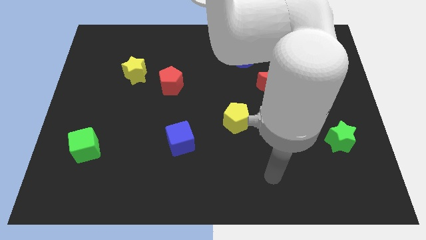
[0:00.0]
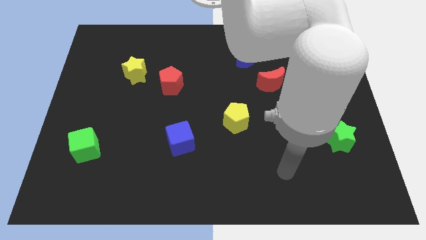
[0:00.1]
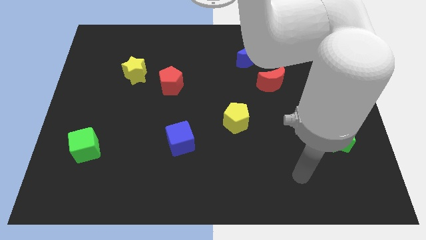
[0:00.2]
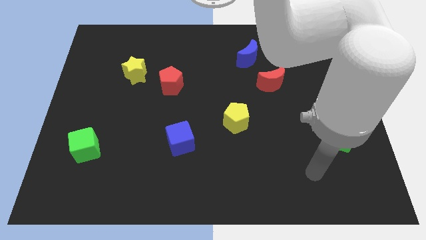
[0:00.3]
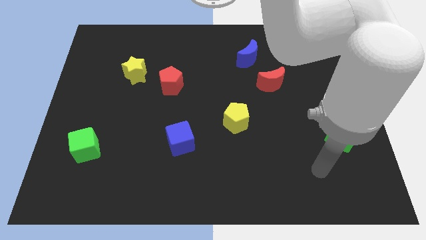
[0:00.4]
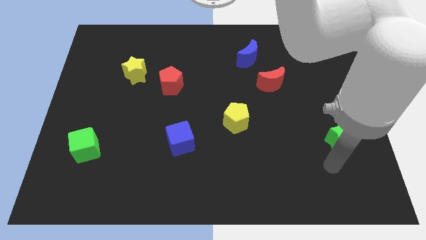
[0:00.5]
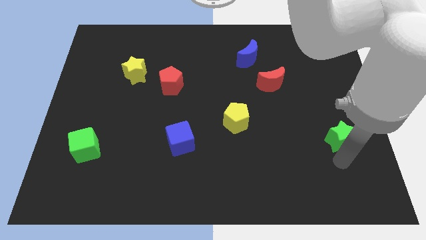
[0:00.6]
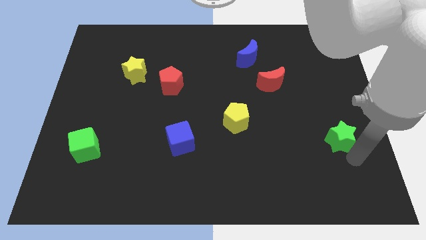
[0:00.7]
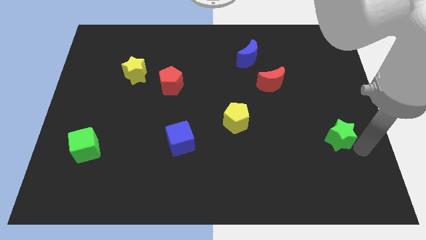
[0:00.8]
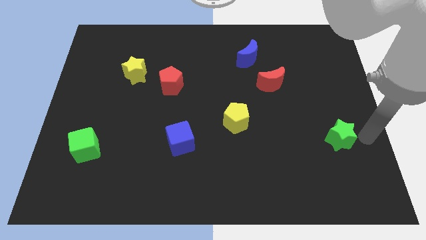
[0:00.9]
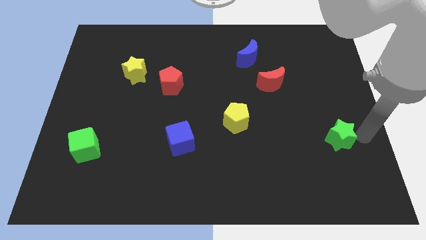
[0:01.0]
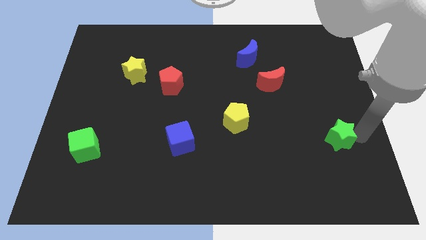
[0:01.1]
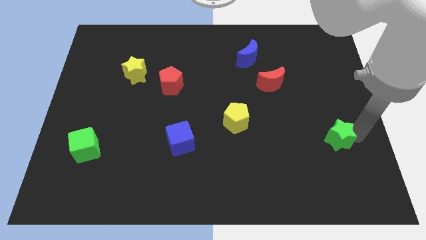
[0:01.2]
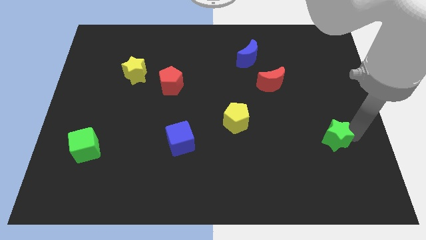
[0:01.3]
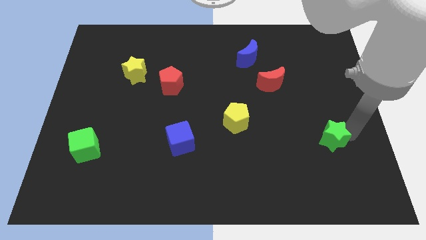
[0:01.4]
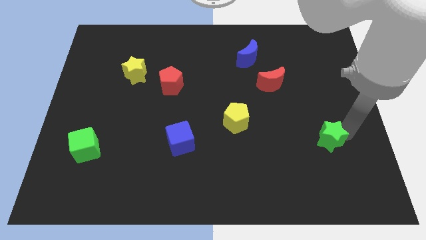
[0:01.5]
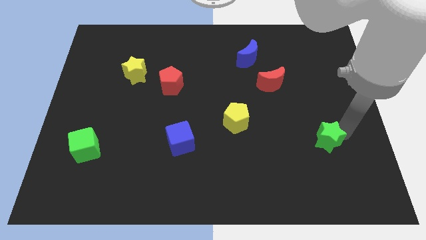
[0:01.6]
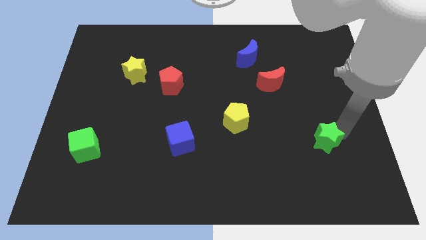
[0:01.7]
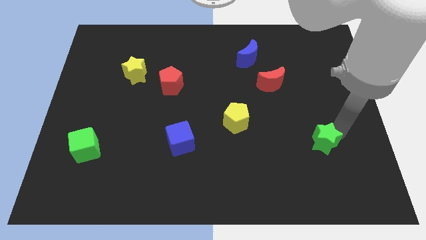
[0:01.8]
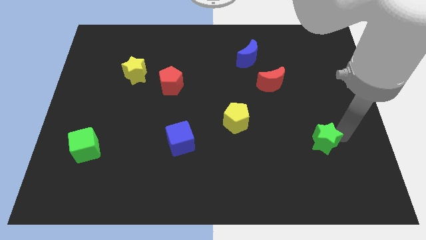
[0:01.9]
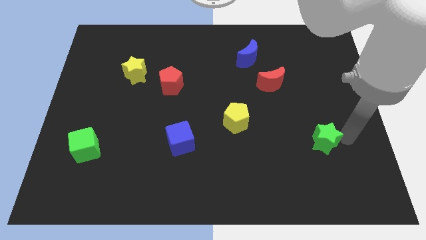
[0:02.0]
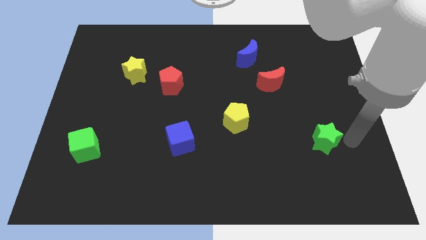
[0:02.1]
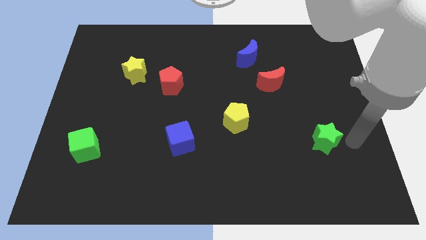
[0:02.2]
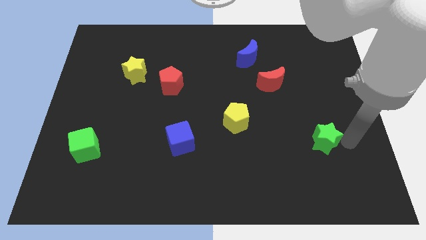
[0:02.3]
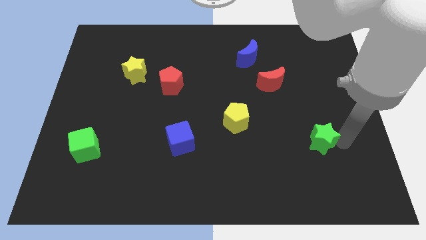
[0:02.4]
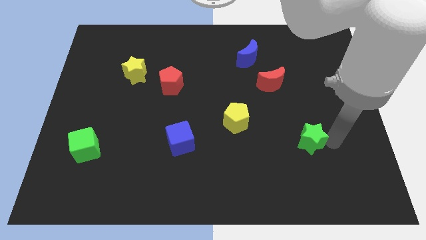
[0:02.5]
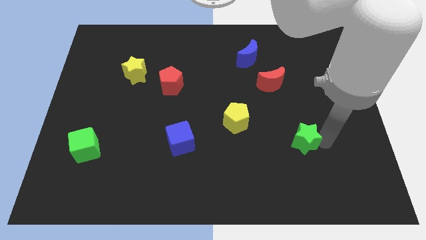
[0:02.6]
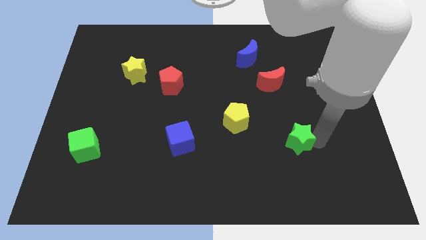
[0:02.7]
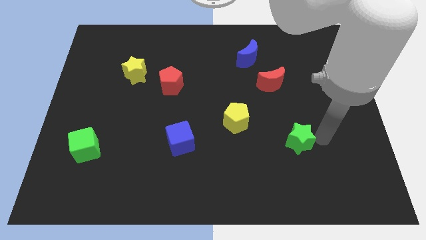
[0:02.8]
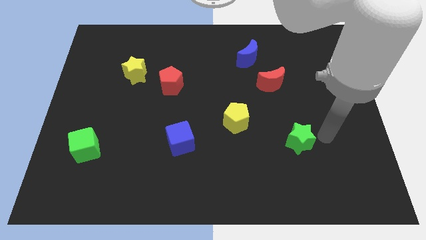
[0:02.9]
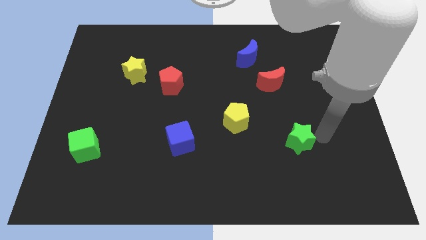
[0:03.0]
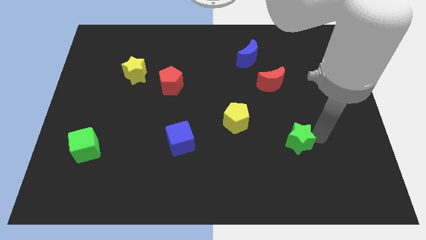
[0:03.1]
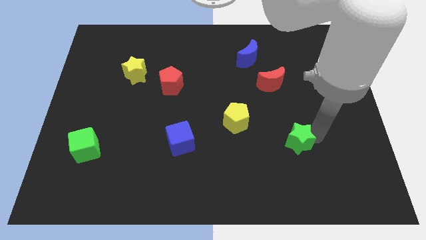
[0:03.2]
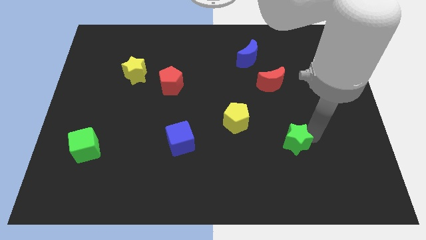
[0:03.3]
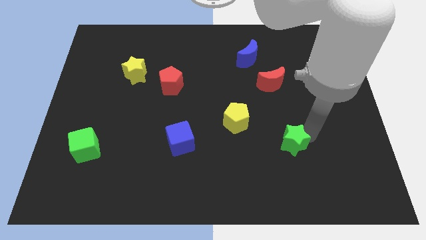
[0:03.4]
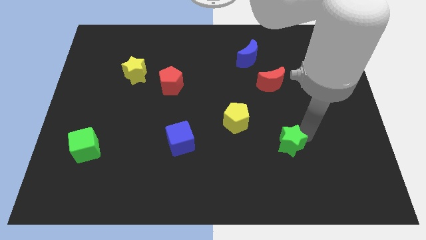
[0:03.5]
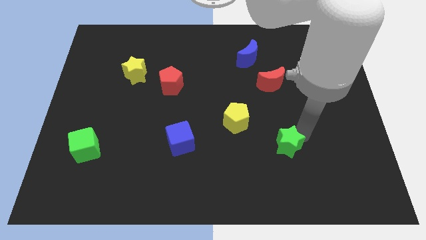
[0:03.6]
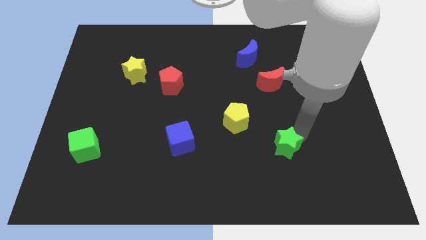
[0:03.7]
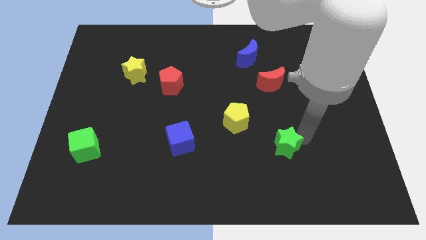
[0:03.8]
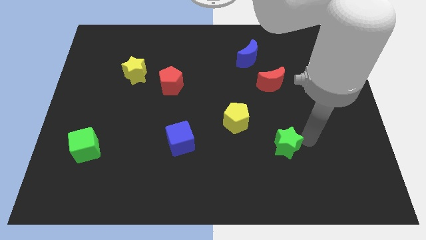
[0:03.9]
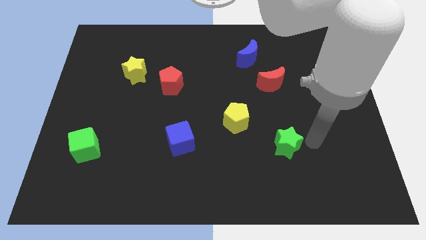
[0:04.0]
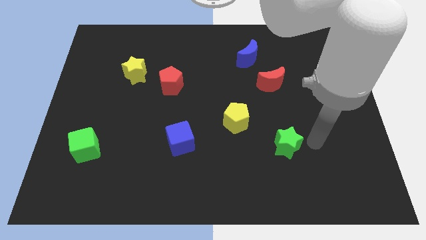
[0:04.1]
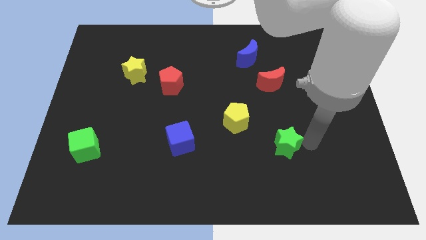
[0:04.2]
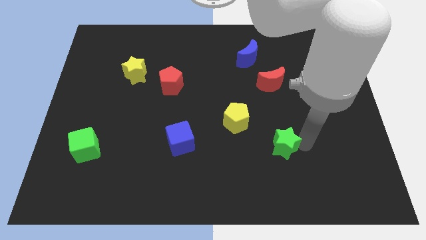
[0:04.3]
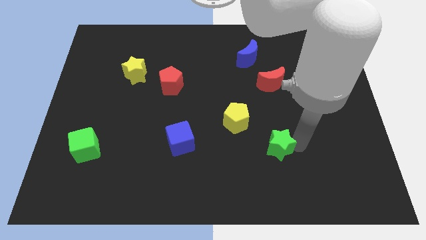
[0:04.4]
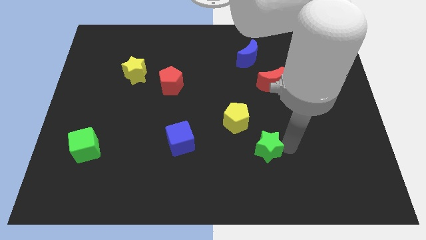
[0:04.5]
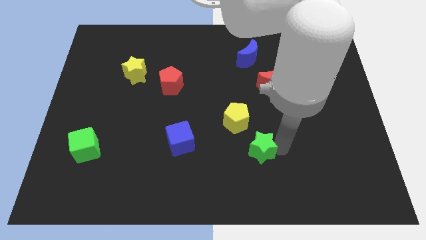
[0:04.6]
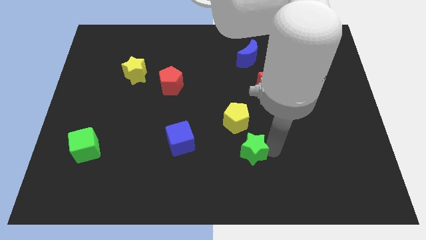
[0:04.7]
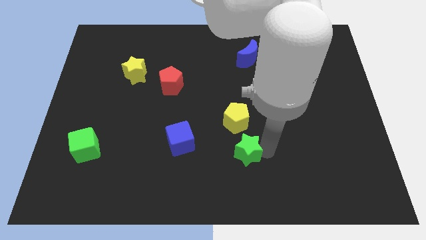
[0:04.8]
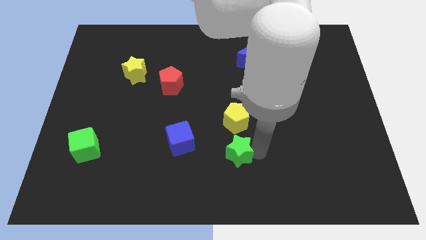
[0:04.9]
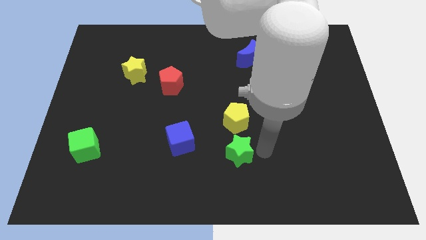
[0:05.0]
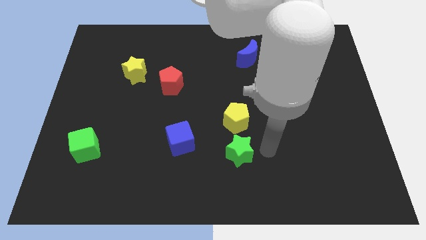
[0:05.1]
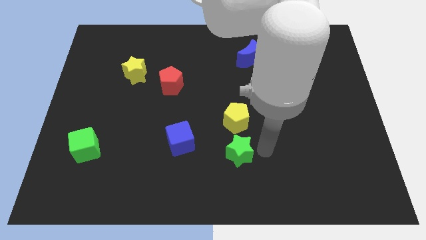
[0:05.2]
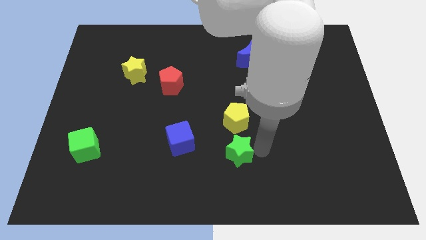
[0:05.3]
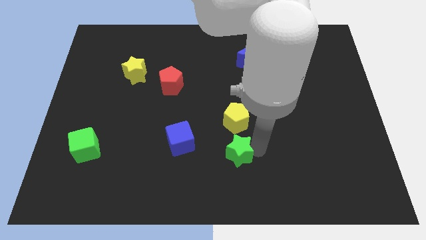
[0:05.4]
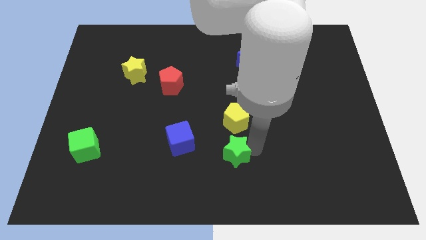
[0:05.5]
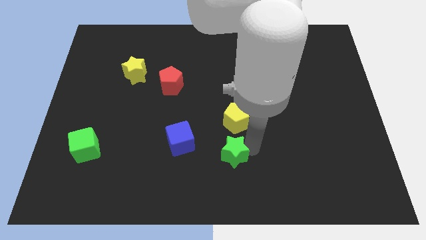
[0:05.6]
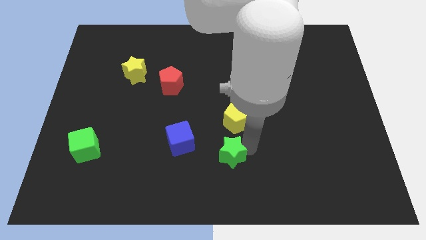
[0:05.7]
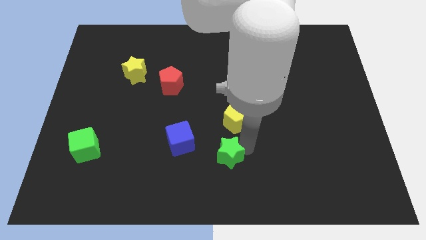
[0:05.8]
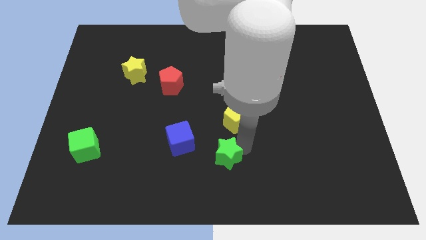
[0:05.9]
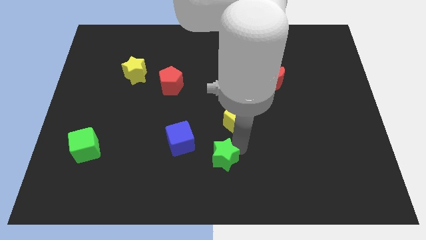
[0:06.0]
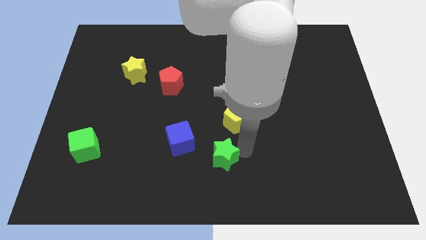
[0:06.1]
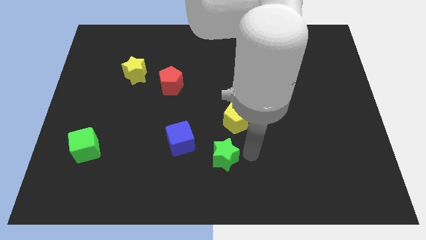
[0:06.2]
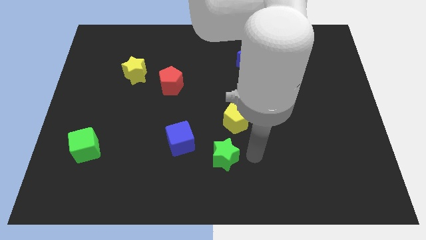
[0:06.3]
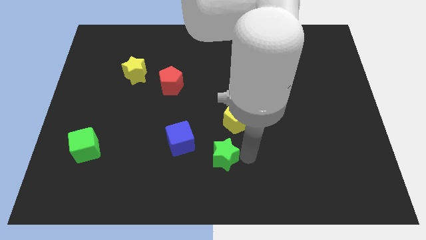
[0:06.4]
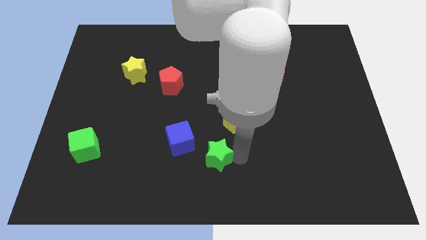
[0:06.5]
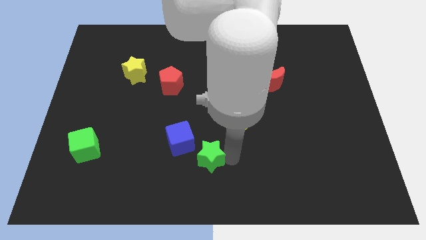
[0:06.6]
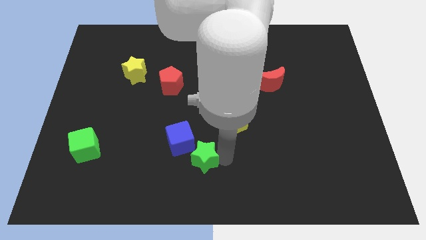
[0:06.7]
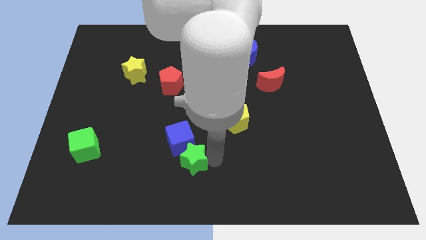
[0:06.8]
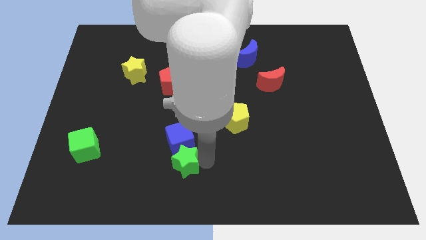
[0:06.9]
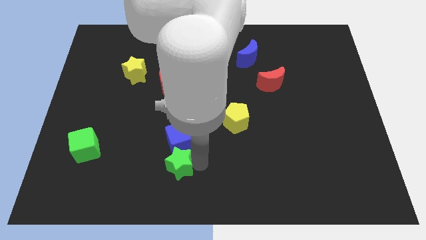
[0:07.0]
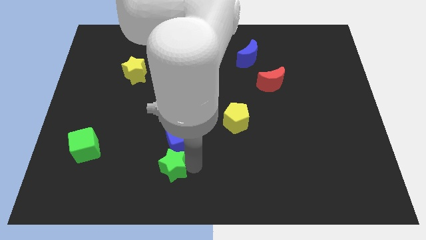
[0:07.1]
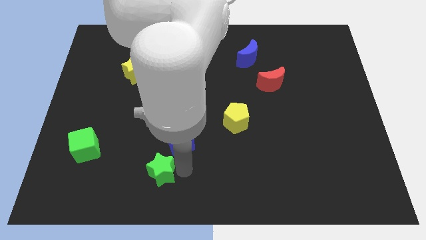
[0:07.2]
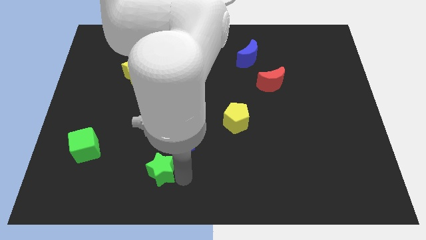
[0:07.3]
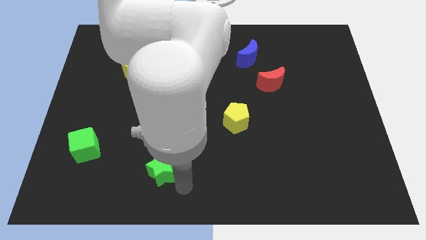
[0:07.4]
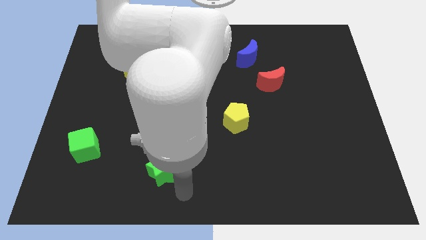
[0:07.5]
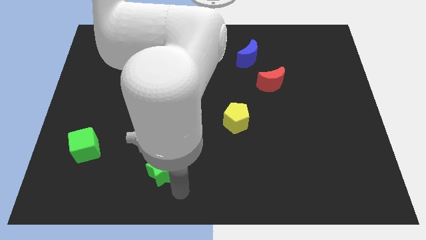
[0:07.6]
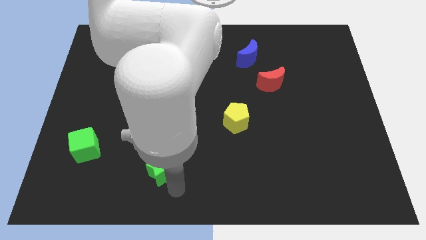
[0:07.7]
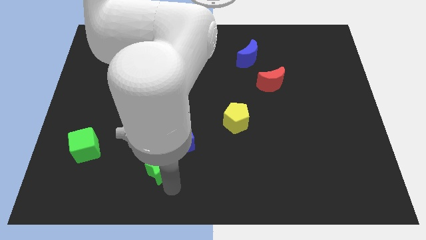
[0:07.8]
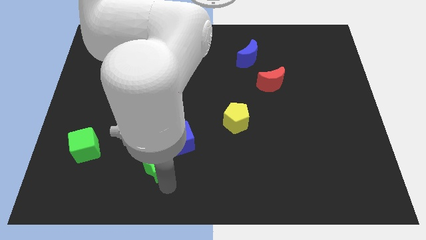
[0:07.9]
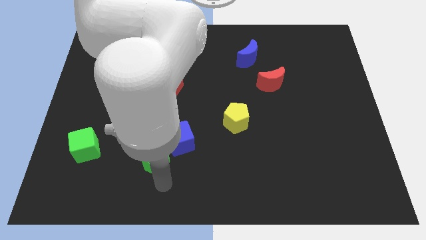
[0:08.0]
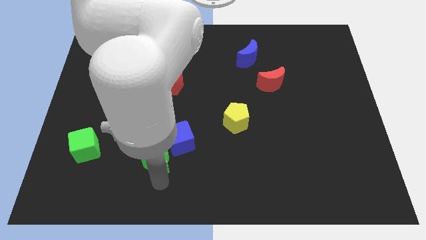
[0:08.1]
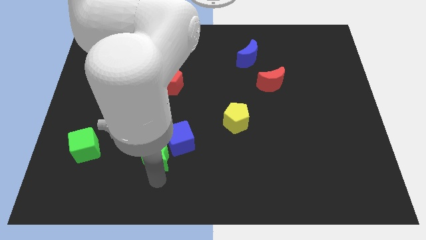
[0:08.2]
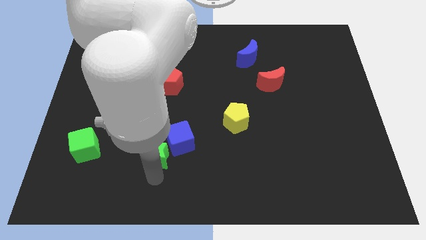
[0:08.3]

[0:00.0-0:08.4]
slide the green star just right of the green cube
